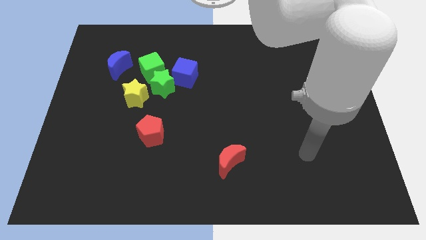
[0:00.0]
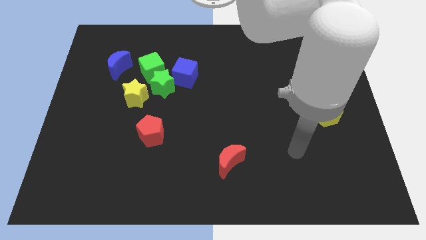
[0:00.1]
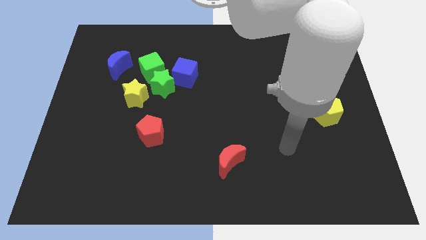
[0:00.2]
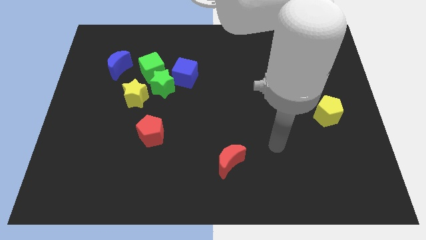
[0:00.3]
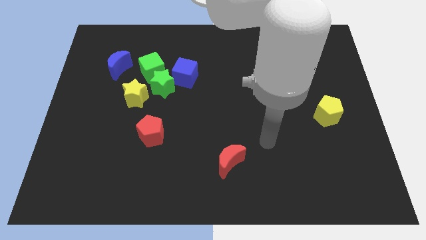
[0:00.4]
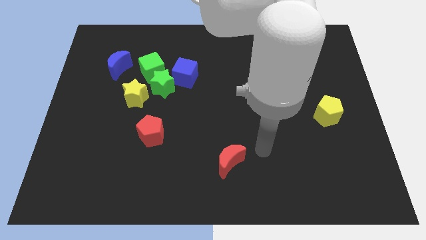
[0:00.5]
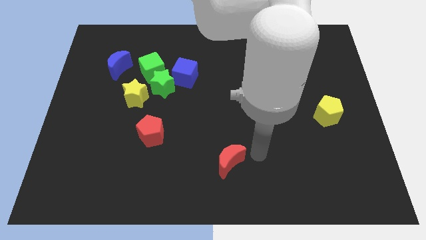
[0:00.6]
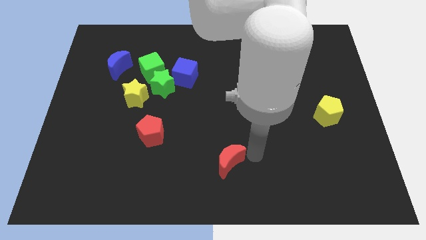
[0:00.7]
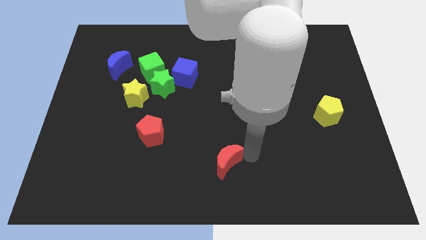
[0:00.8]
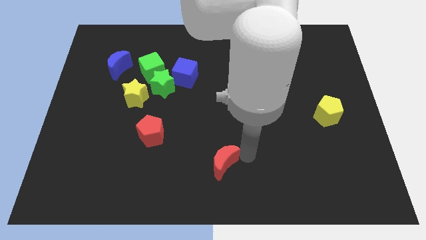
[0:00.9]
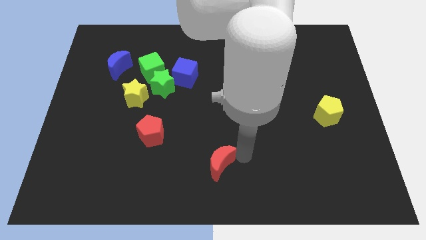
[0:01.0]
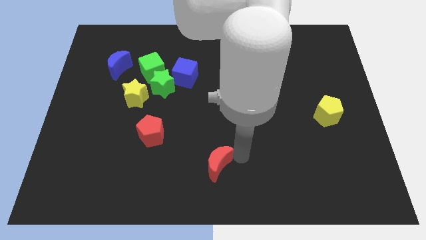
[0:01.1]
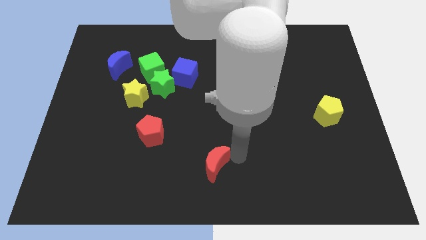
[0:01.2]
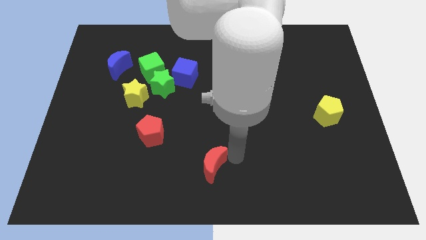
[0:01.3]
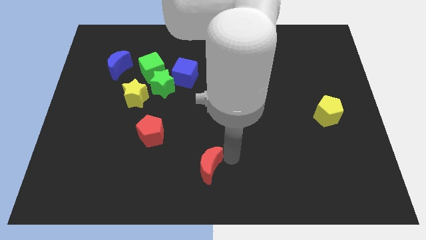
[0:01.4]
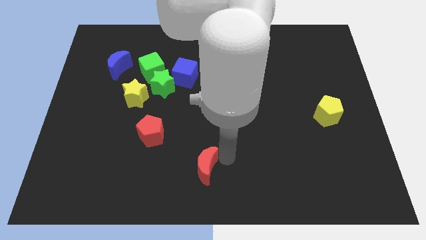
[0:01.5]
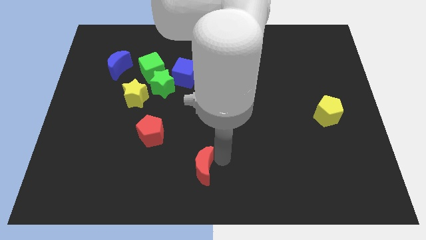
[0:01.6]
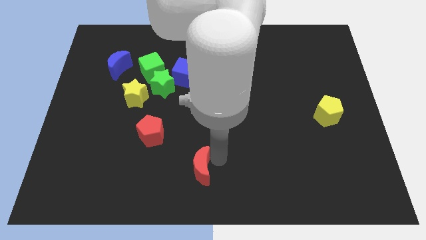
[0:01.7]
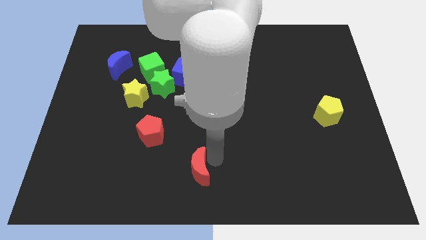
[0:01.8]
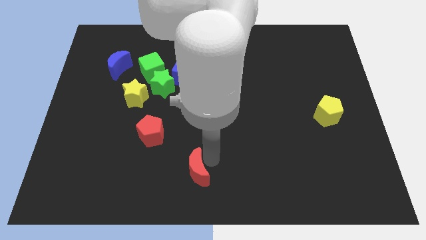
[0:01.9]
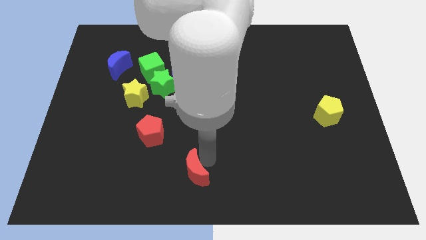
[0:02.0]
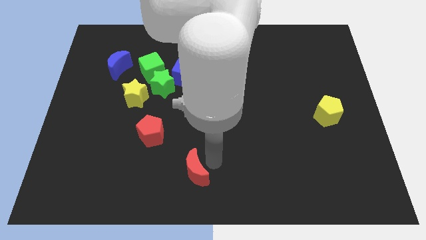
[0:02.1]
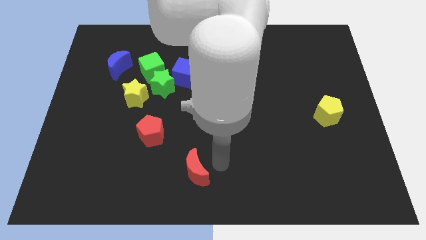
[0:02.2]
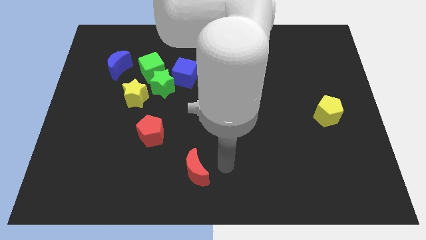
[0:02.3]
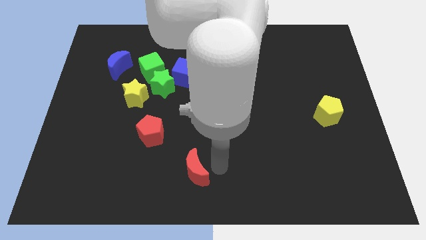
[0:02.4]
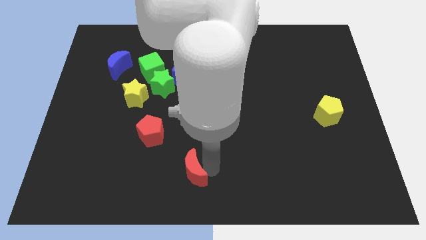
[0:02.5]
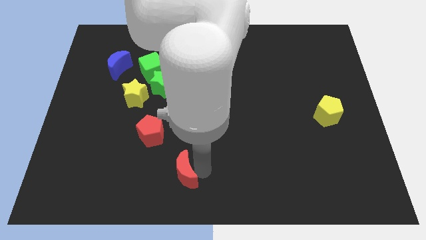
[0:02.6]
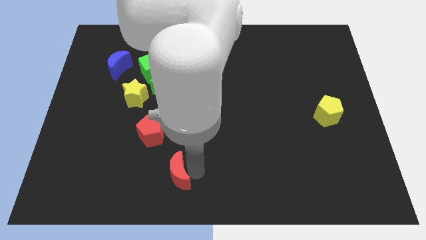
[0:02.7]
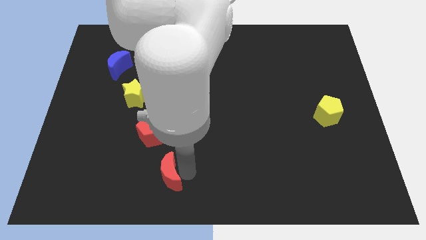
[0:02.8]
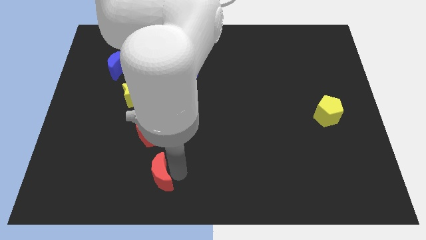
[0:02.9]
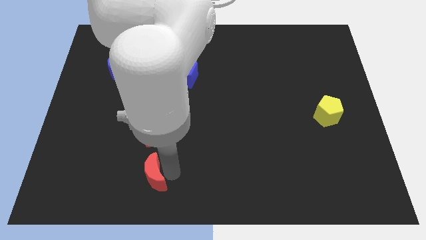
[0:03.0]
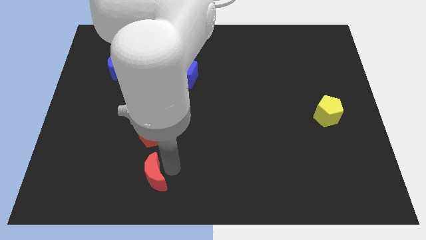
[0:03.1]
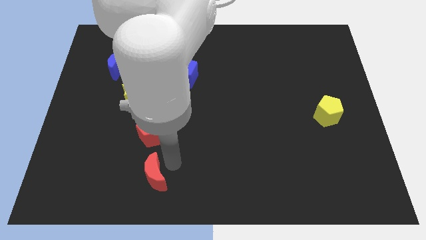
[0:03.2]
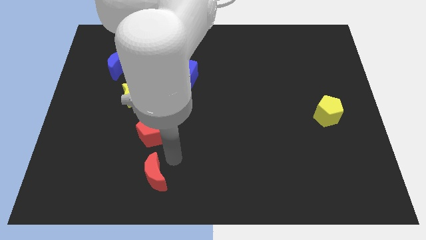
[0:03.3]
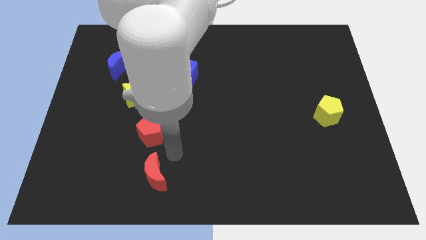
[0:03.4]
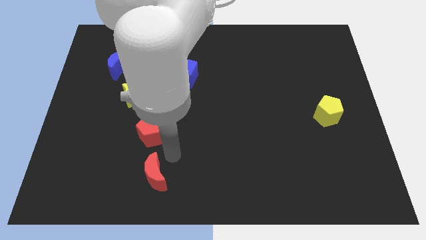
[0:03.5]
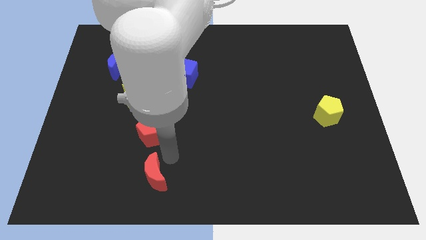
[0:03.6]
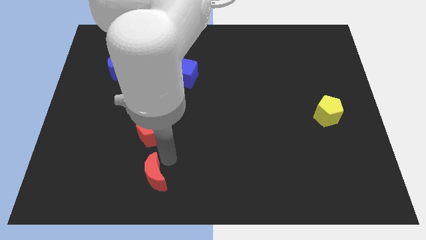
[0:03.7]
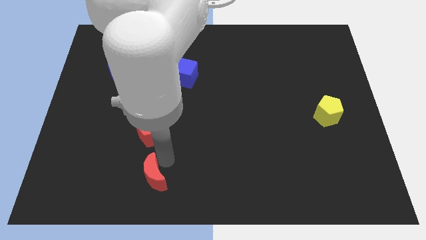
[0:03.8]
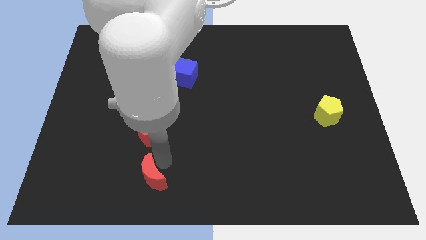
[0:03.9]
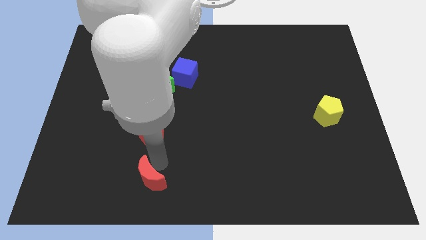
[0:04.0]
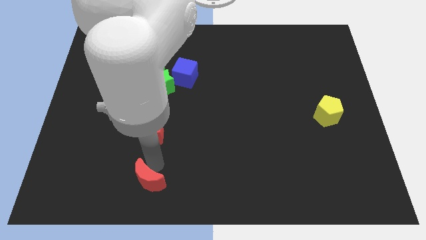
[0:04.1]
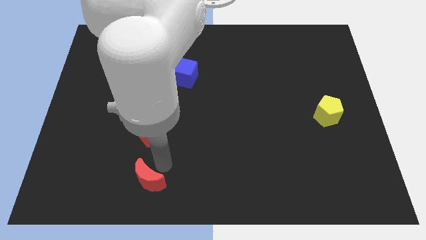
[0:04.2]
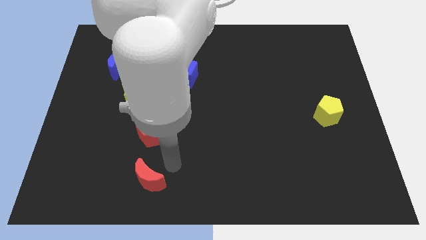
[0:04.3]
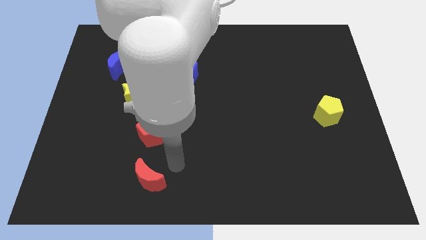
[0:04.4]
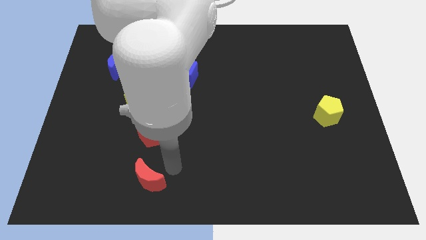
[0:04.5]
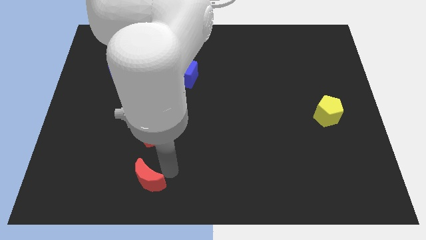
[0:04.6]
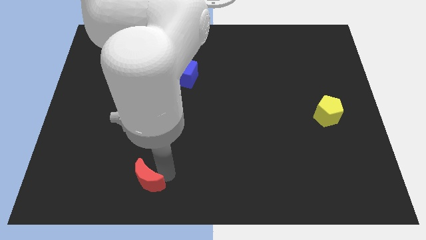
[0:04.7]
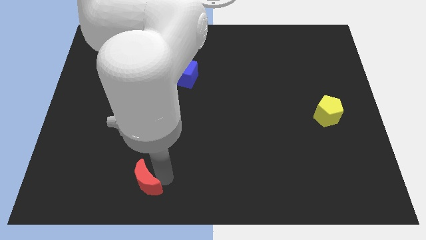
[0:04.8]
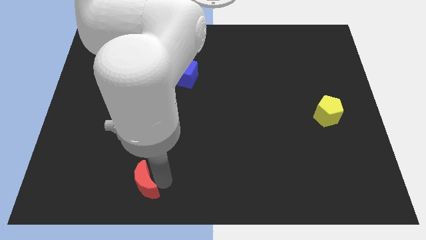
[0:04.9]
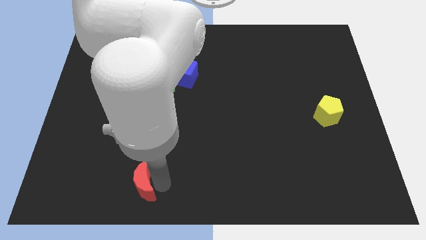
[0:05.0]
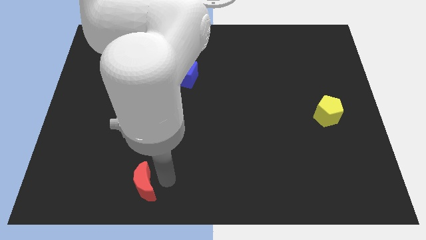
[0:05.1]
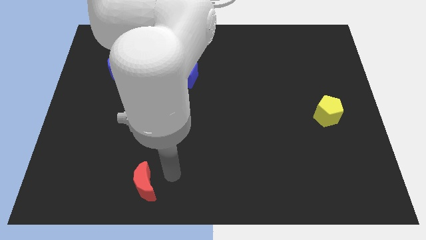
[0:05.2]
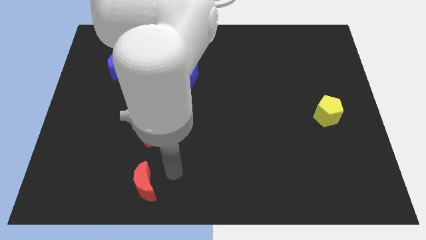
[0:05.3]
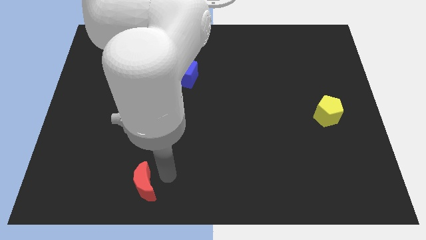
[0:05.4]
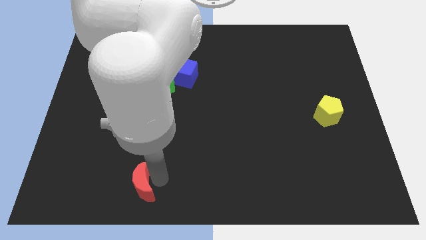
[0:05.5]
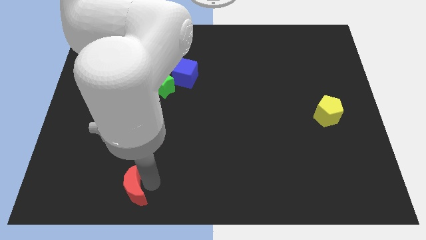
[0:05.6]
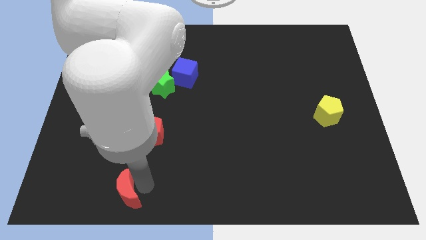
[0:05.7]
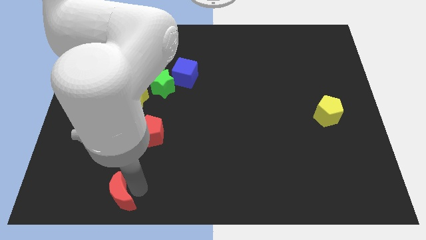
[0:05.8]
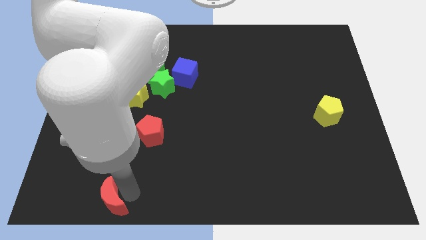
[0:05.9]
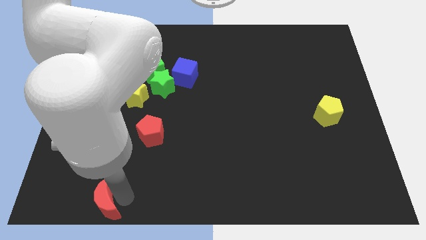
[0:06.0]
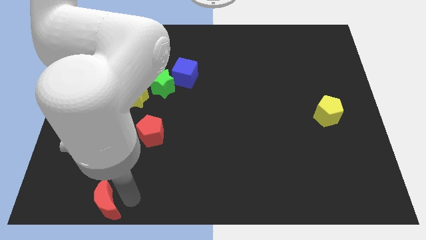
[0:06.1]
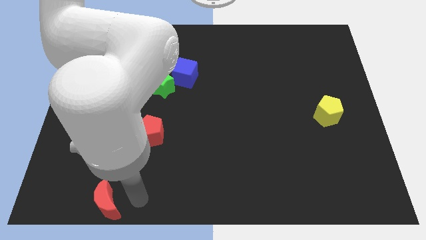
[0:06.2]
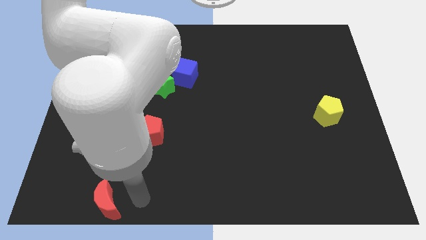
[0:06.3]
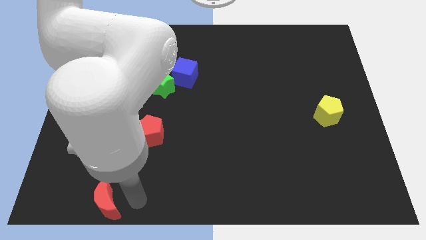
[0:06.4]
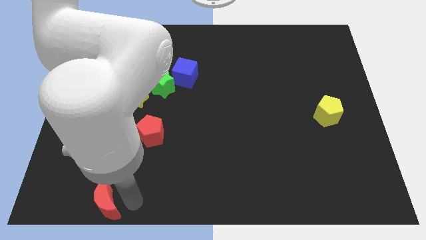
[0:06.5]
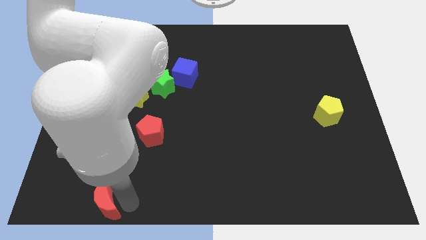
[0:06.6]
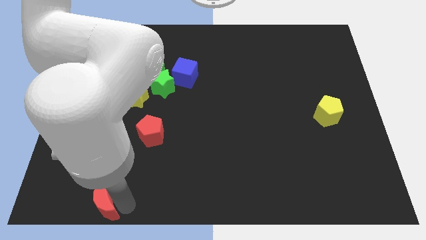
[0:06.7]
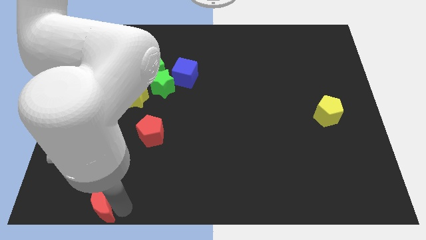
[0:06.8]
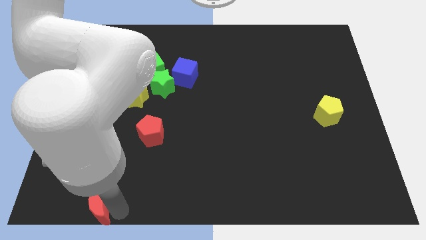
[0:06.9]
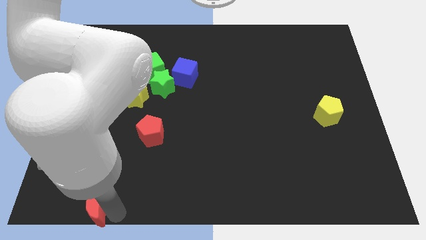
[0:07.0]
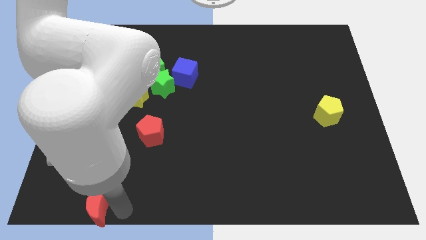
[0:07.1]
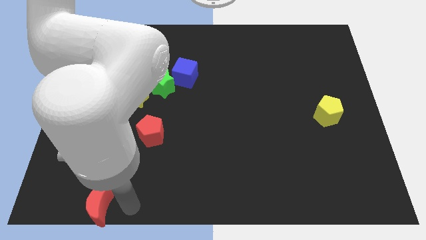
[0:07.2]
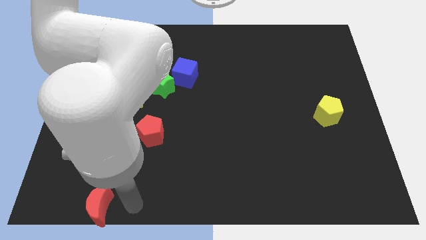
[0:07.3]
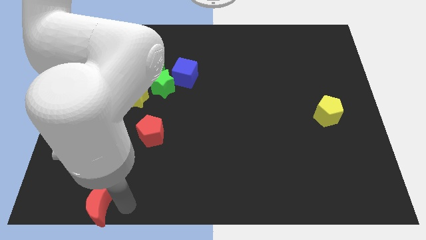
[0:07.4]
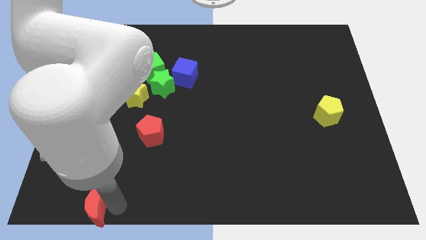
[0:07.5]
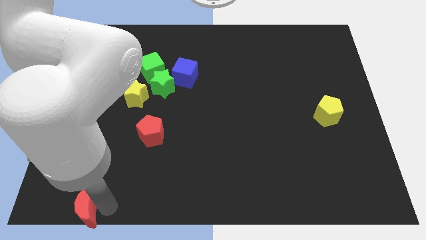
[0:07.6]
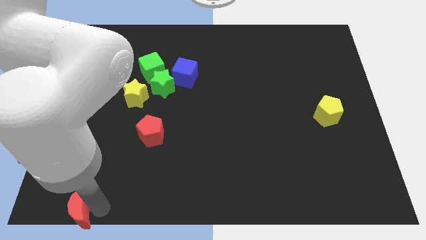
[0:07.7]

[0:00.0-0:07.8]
move the red moon to the bottom left corner
